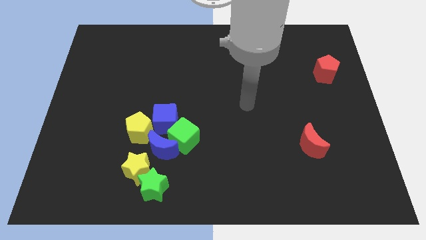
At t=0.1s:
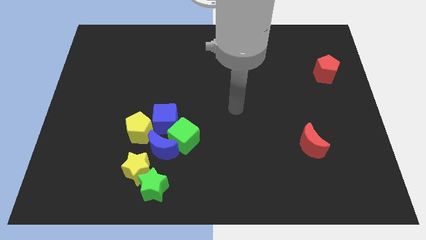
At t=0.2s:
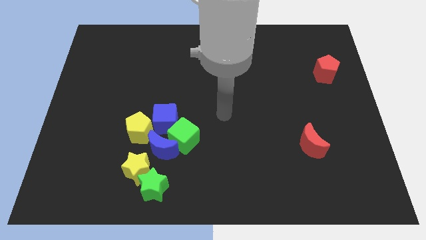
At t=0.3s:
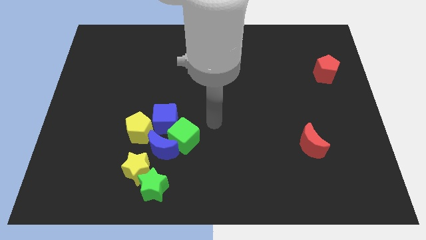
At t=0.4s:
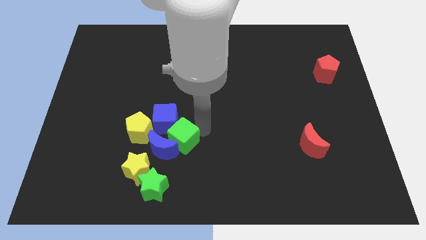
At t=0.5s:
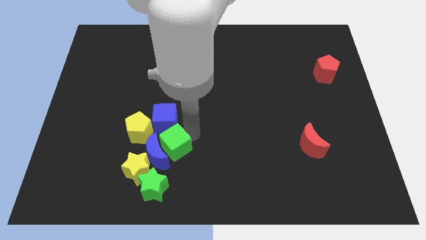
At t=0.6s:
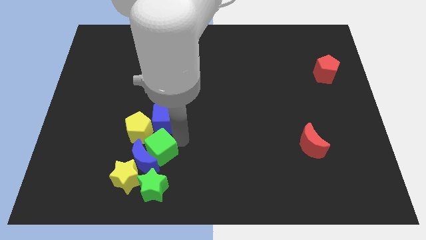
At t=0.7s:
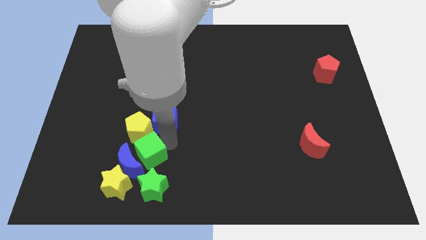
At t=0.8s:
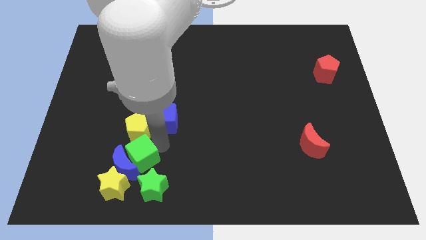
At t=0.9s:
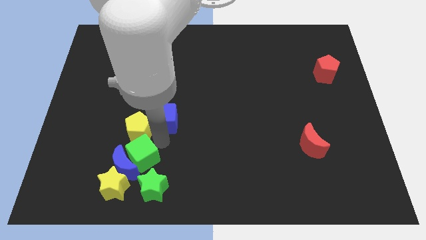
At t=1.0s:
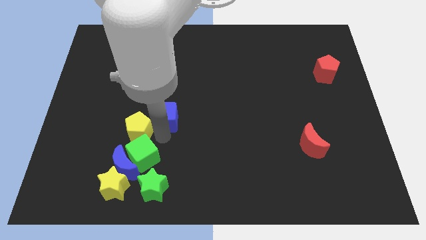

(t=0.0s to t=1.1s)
pull the blue cube apart from the group of blocks

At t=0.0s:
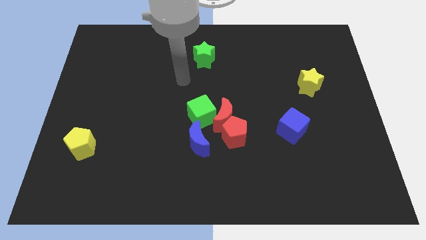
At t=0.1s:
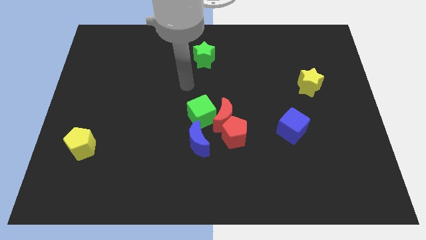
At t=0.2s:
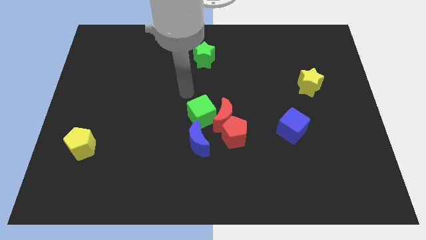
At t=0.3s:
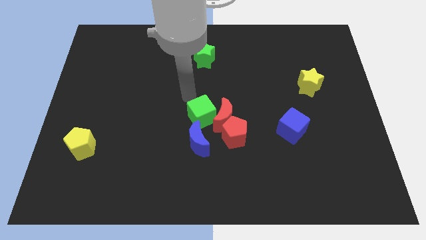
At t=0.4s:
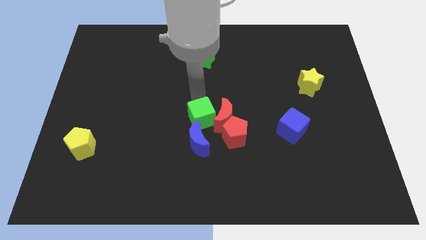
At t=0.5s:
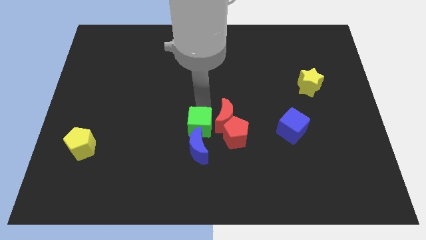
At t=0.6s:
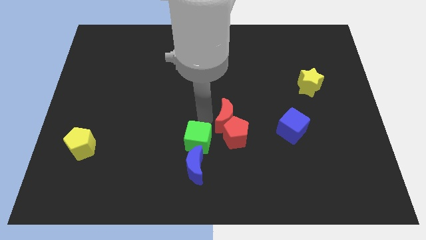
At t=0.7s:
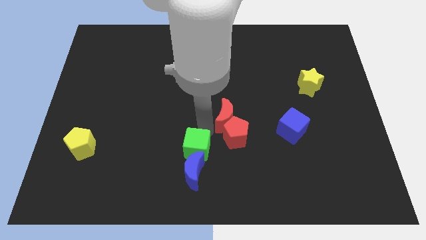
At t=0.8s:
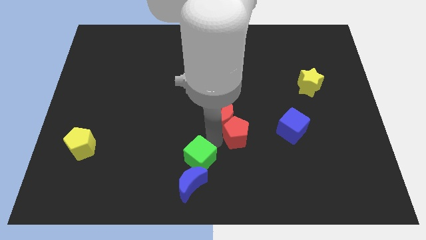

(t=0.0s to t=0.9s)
pull the red moon apart from the red pentagon, green cube, and blue moon

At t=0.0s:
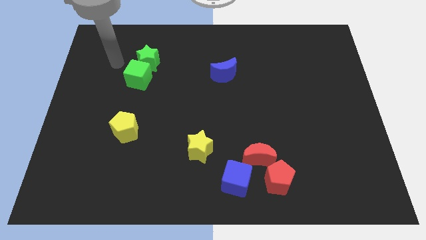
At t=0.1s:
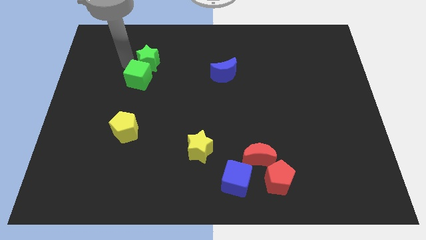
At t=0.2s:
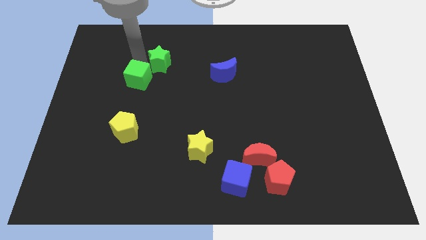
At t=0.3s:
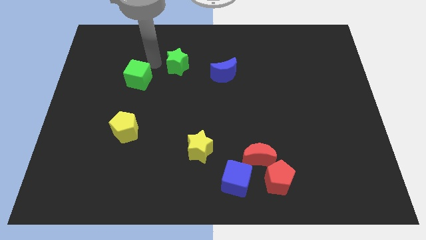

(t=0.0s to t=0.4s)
separate the green cube from the green star

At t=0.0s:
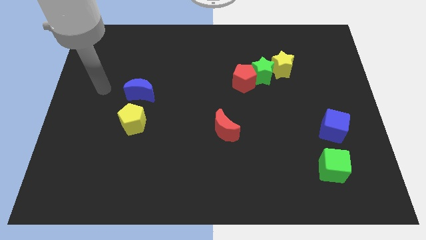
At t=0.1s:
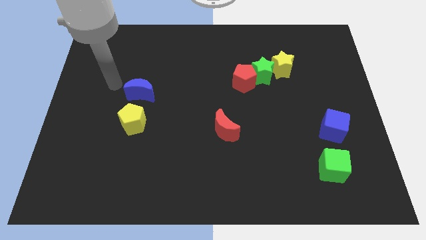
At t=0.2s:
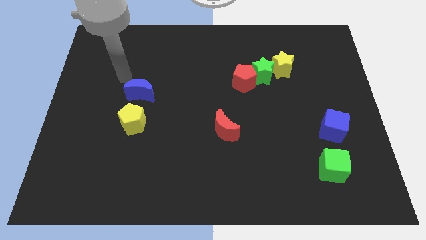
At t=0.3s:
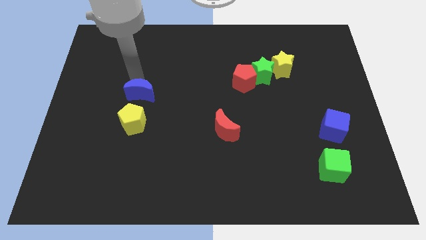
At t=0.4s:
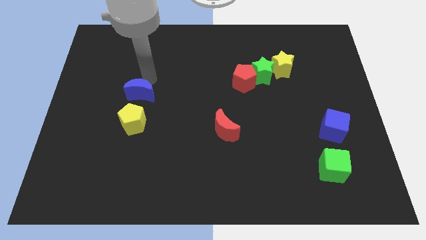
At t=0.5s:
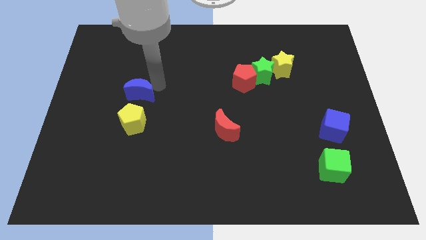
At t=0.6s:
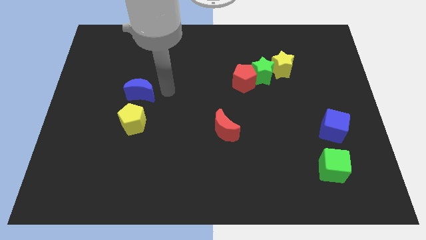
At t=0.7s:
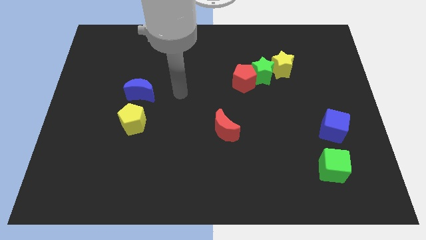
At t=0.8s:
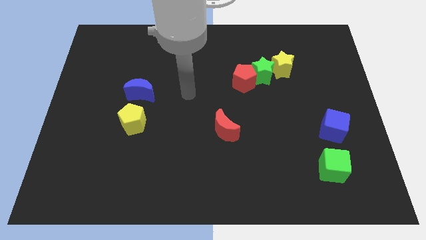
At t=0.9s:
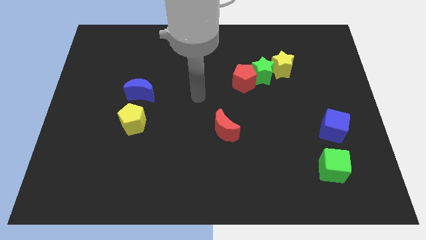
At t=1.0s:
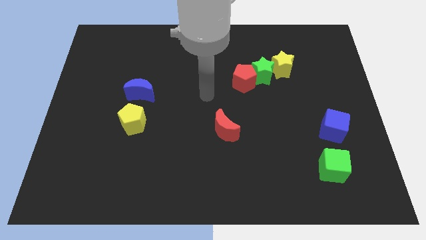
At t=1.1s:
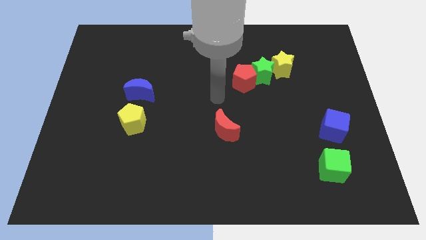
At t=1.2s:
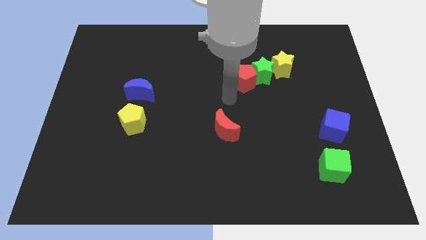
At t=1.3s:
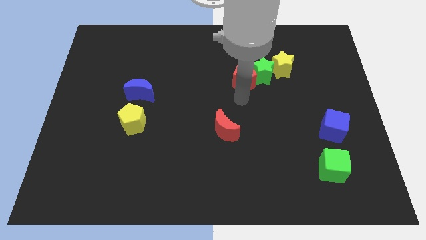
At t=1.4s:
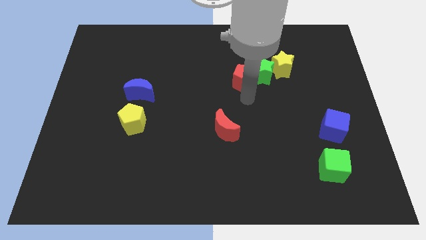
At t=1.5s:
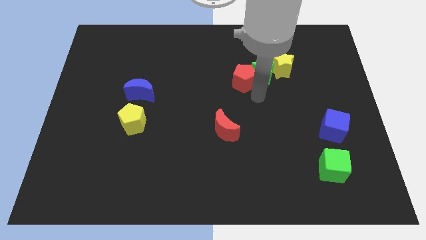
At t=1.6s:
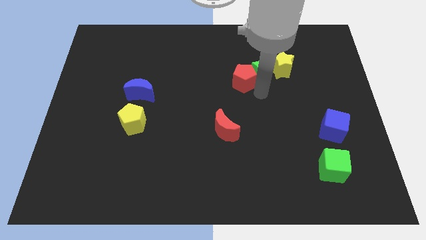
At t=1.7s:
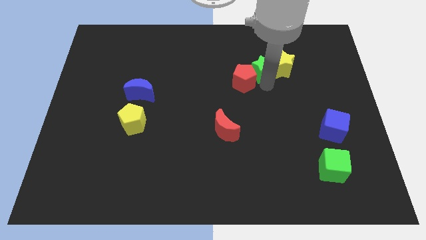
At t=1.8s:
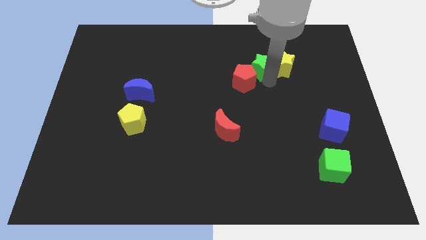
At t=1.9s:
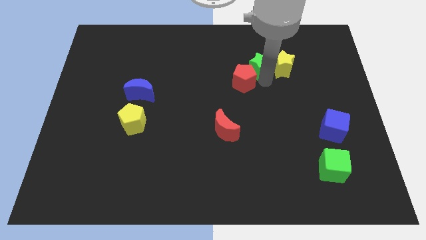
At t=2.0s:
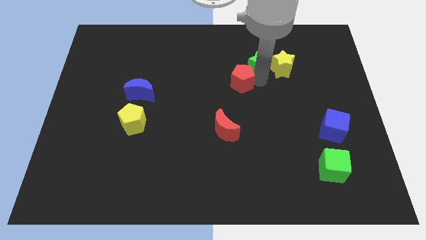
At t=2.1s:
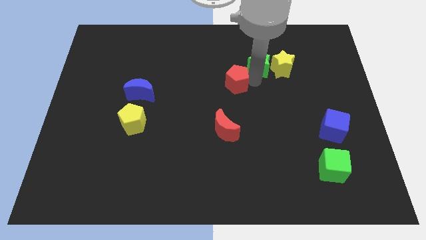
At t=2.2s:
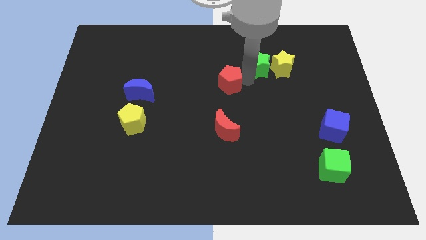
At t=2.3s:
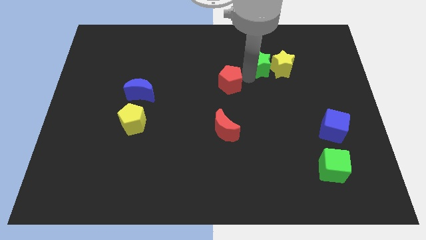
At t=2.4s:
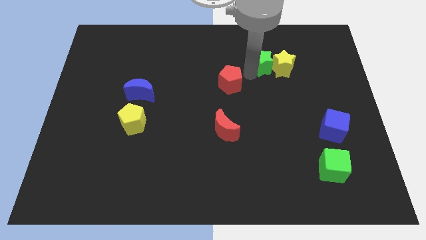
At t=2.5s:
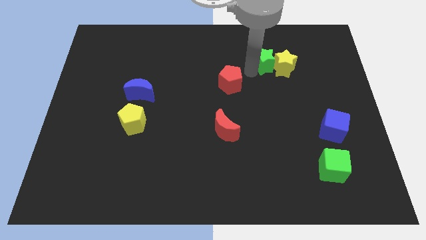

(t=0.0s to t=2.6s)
move the red pentagon away from the green star

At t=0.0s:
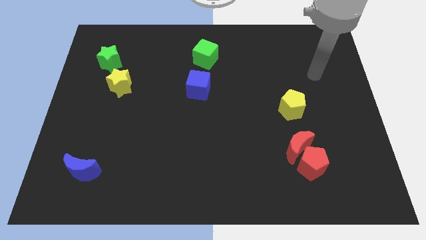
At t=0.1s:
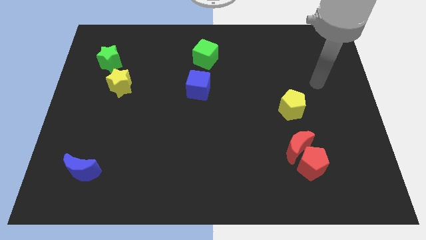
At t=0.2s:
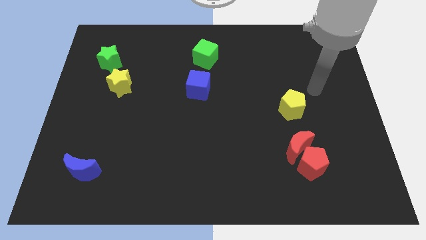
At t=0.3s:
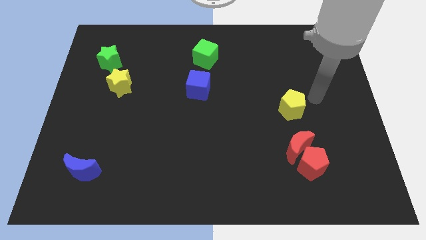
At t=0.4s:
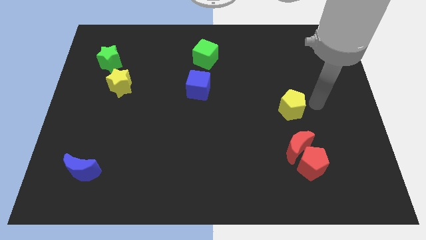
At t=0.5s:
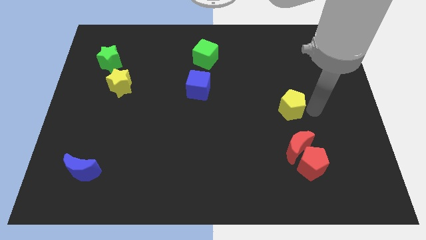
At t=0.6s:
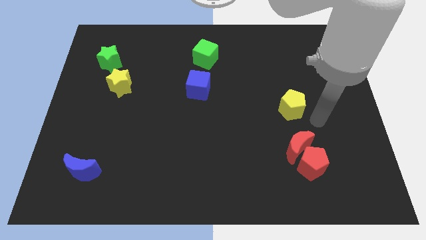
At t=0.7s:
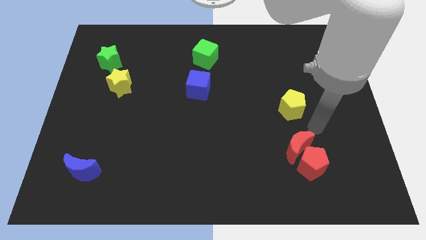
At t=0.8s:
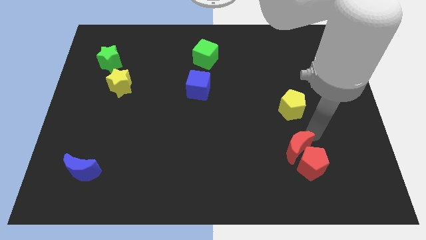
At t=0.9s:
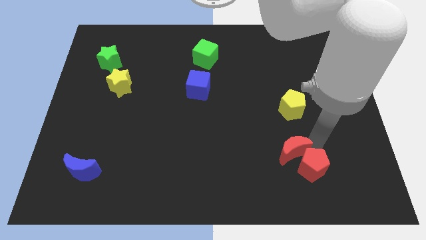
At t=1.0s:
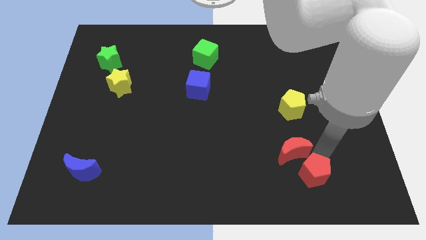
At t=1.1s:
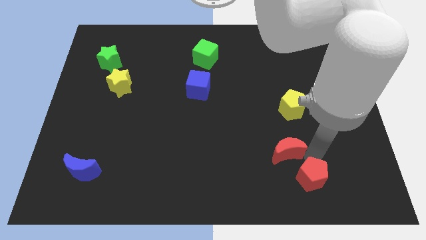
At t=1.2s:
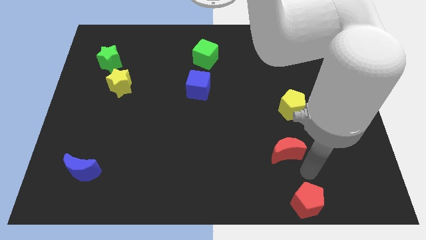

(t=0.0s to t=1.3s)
pull the red moon apart from the red pentagon

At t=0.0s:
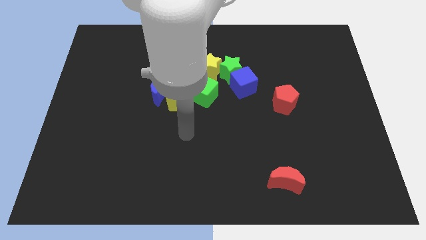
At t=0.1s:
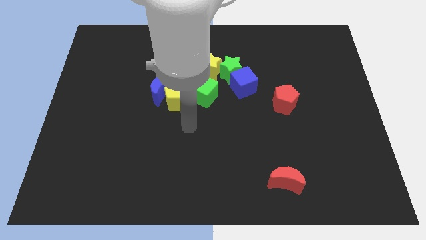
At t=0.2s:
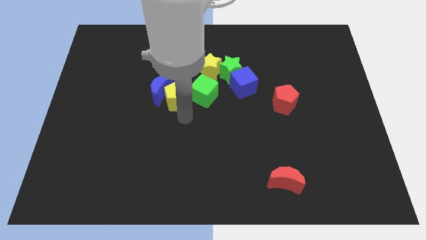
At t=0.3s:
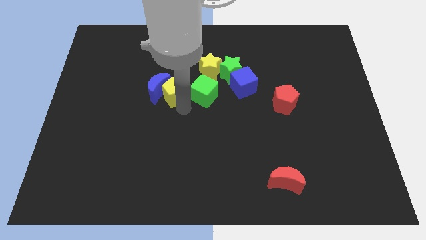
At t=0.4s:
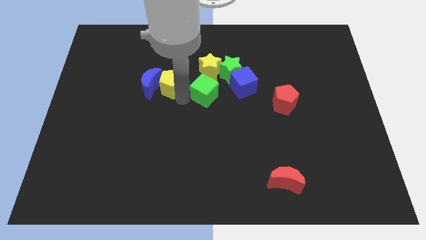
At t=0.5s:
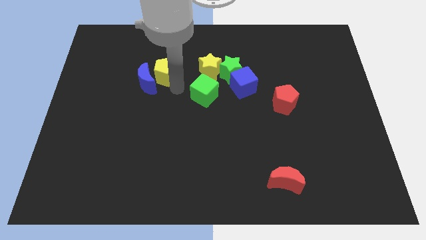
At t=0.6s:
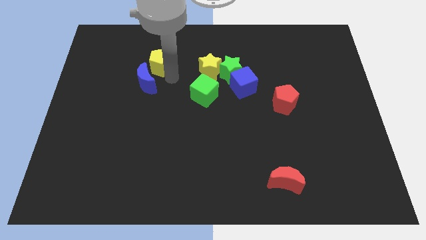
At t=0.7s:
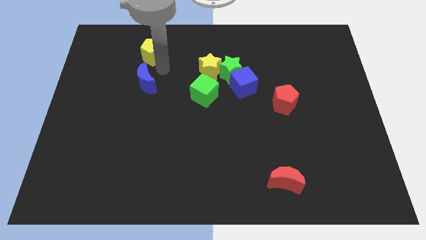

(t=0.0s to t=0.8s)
move the blue moon away from the yellow pentagon

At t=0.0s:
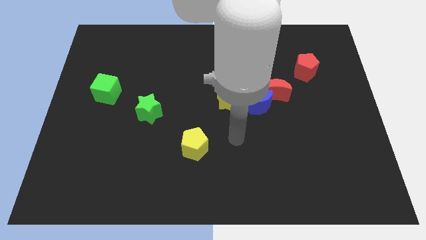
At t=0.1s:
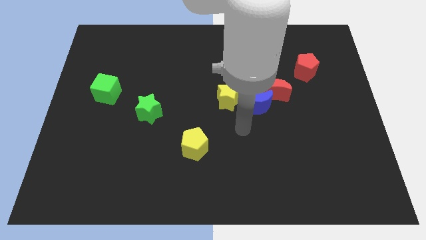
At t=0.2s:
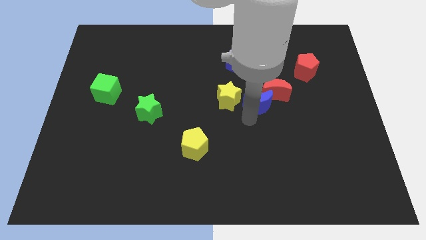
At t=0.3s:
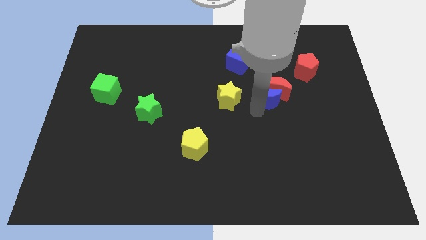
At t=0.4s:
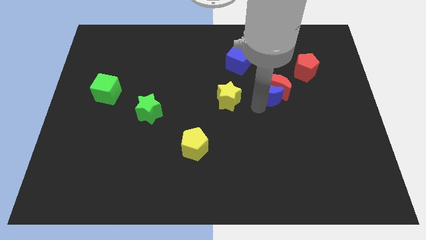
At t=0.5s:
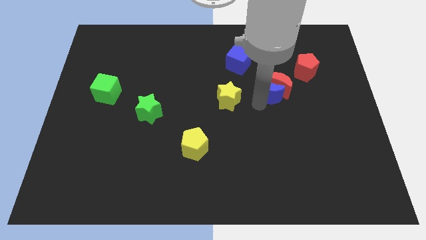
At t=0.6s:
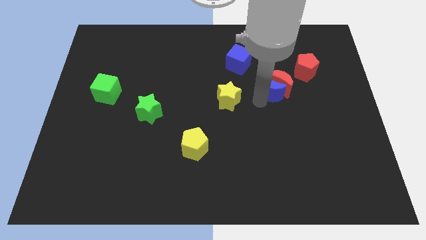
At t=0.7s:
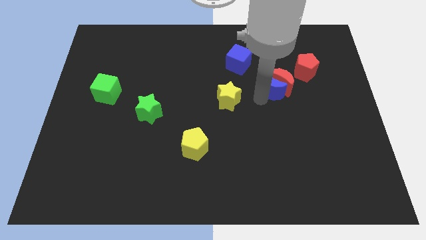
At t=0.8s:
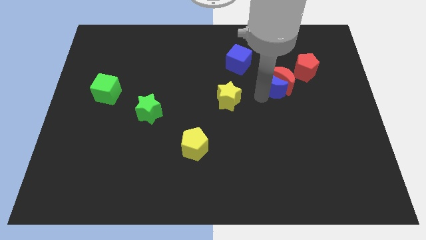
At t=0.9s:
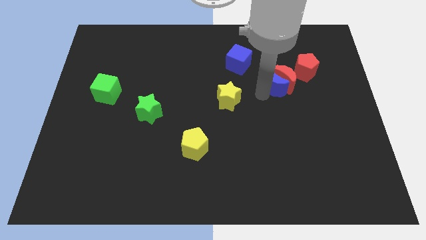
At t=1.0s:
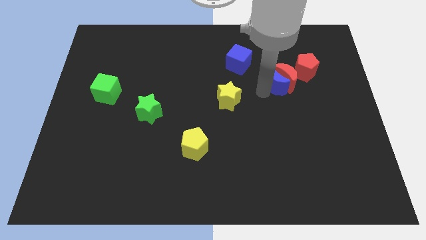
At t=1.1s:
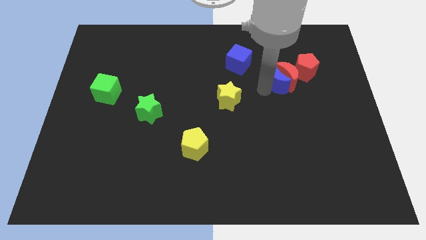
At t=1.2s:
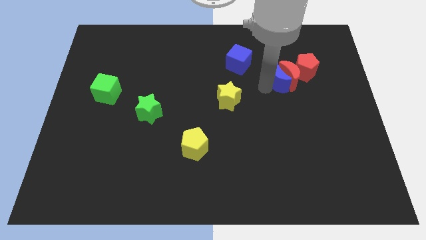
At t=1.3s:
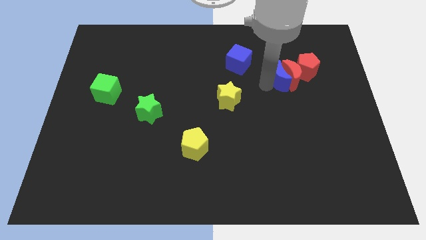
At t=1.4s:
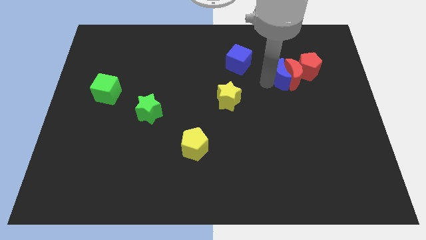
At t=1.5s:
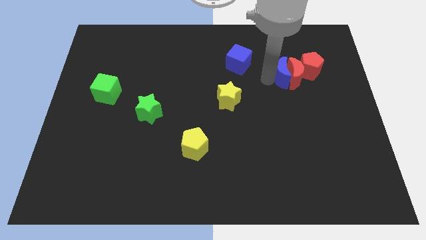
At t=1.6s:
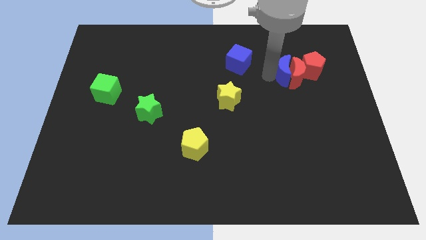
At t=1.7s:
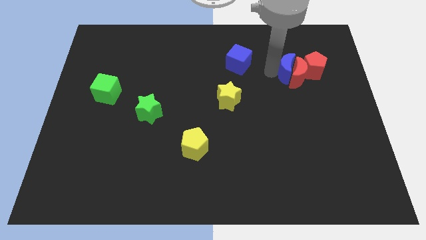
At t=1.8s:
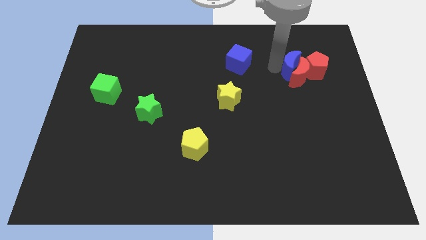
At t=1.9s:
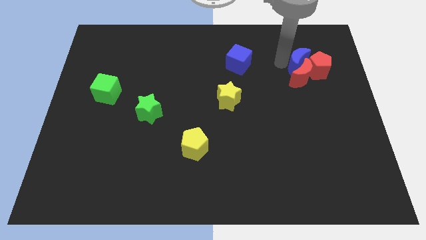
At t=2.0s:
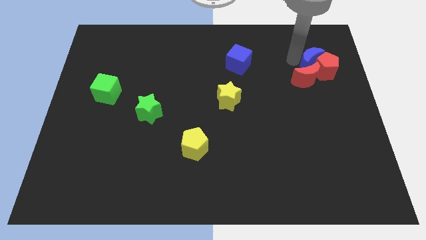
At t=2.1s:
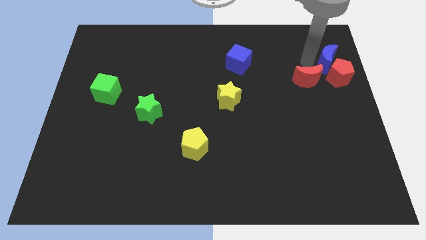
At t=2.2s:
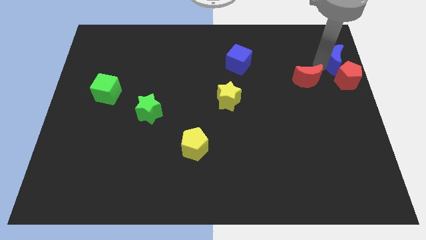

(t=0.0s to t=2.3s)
pull the red moon apart from the blue moon
